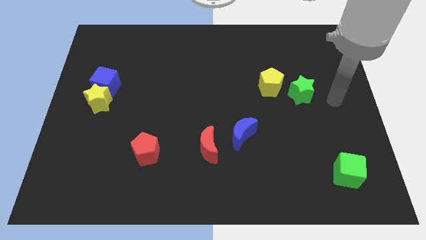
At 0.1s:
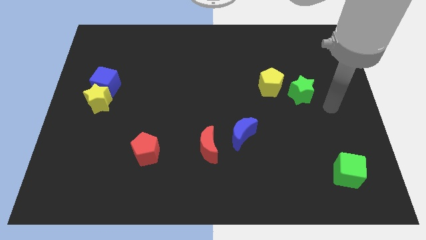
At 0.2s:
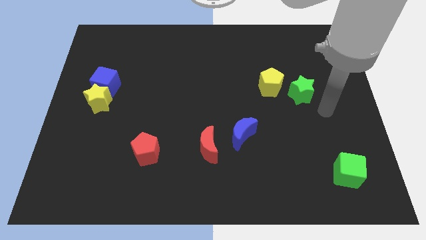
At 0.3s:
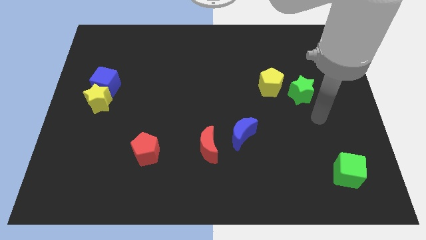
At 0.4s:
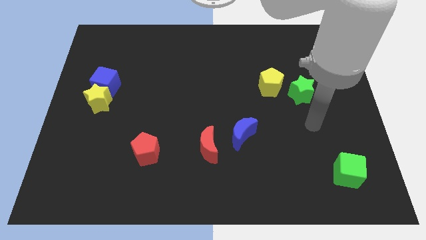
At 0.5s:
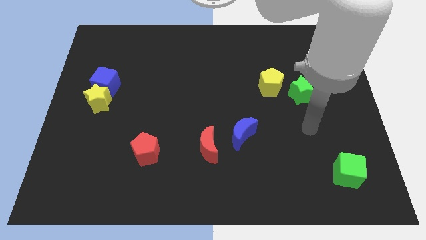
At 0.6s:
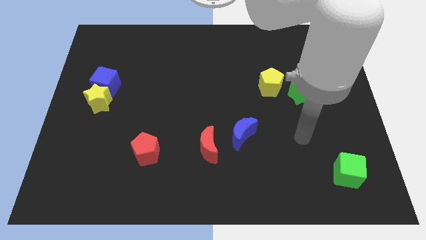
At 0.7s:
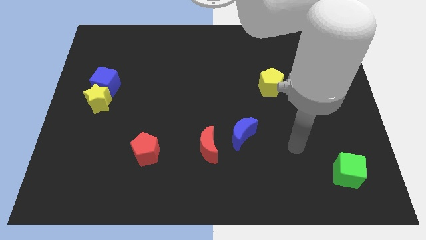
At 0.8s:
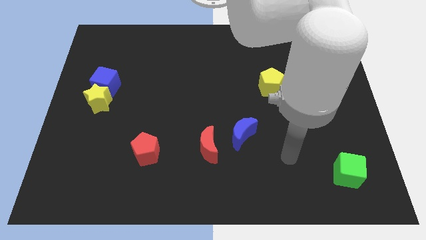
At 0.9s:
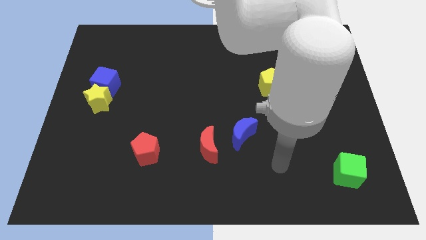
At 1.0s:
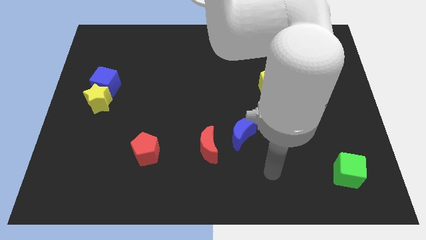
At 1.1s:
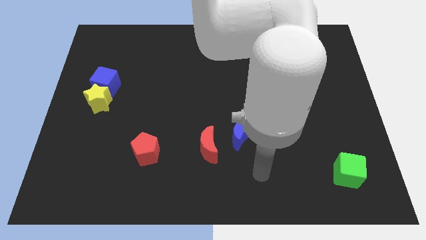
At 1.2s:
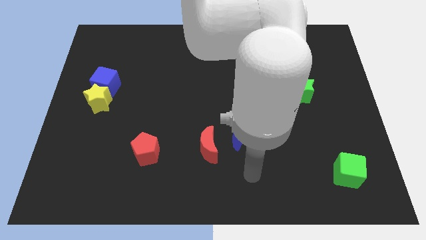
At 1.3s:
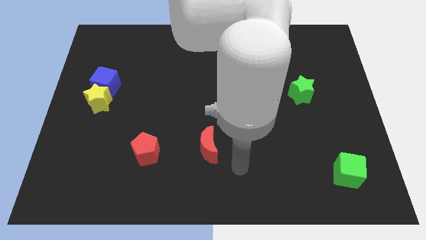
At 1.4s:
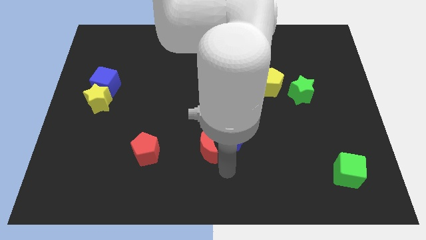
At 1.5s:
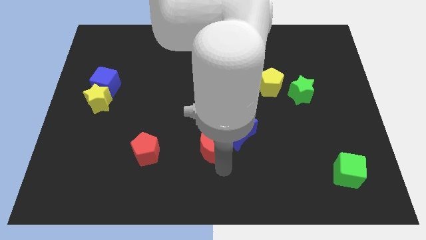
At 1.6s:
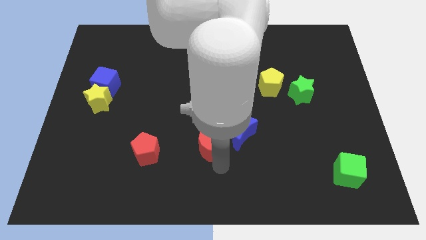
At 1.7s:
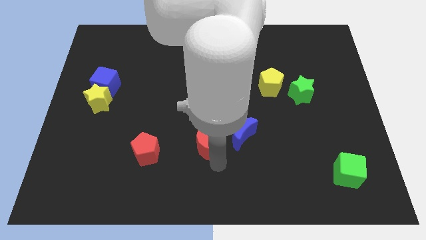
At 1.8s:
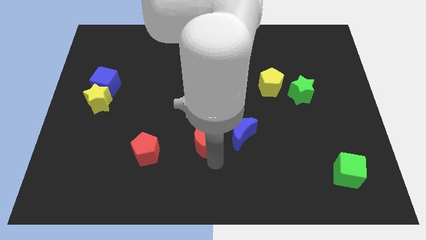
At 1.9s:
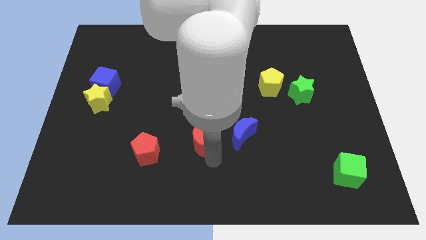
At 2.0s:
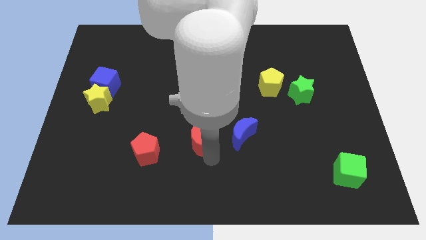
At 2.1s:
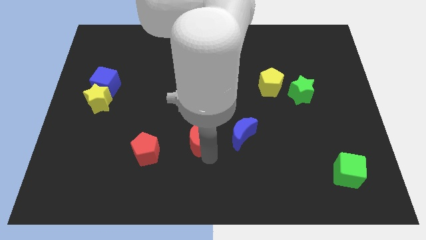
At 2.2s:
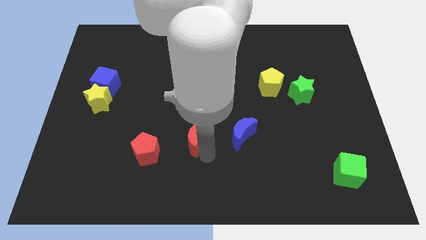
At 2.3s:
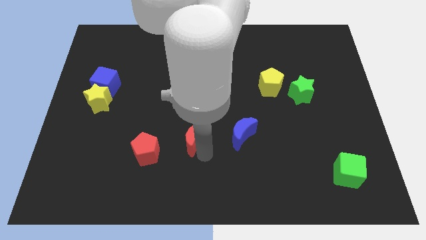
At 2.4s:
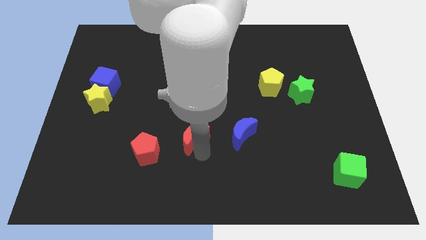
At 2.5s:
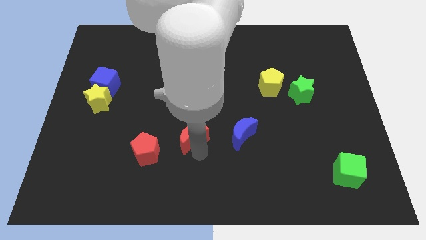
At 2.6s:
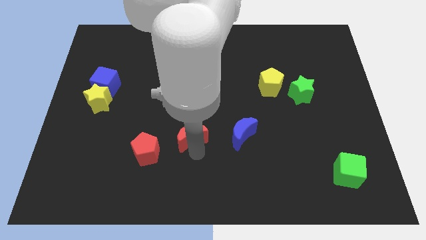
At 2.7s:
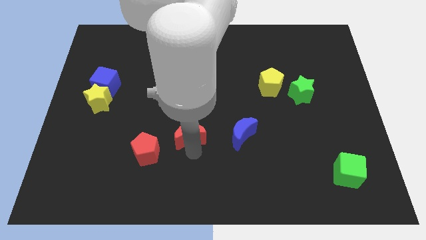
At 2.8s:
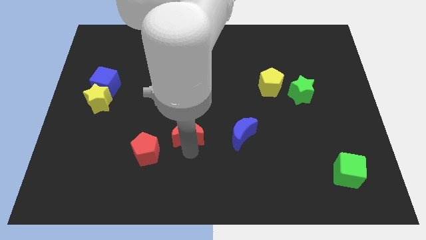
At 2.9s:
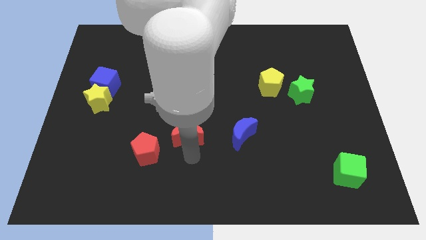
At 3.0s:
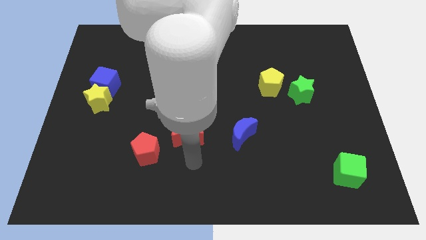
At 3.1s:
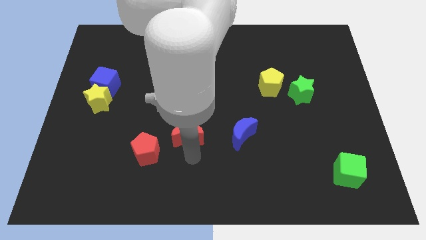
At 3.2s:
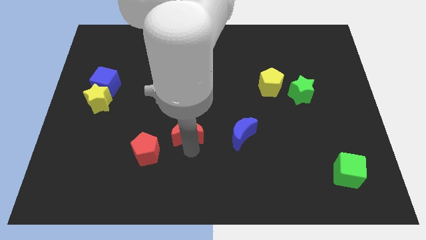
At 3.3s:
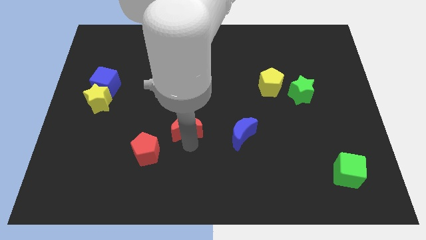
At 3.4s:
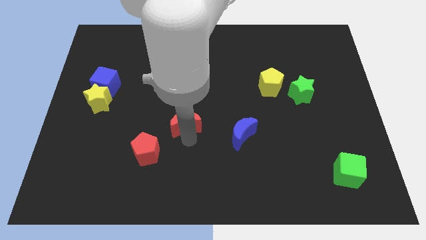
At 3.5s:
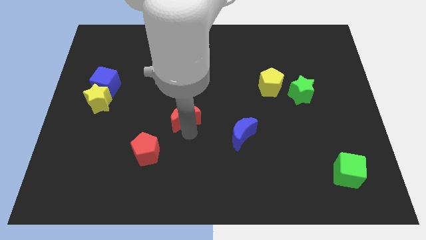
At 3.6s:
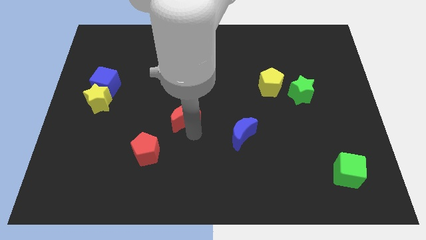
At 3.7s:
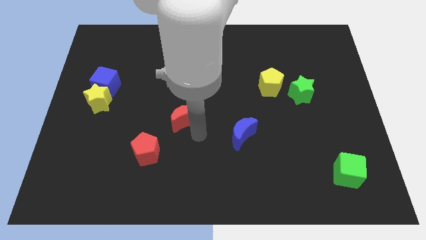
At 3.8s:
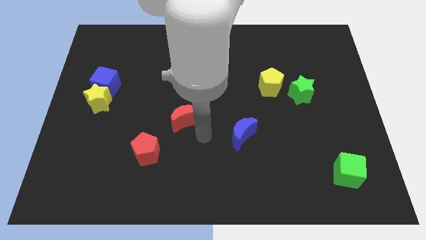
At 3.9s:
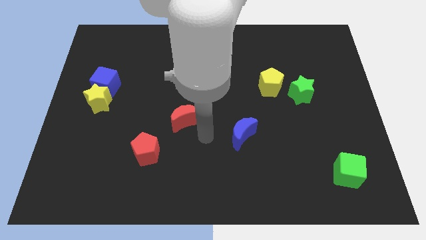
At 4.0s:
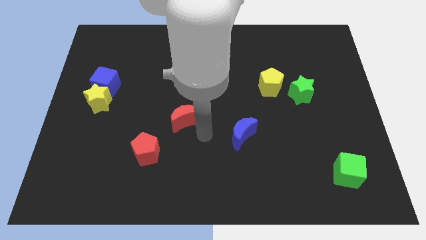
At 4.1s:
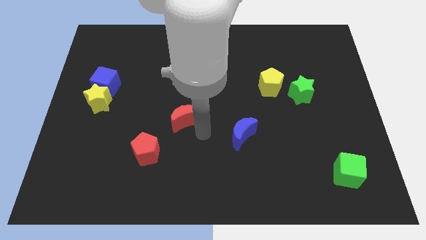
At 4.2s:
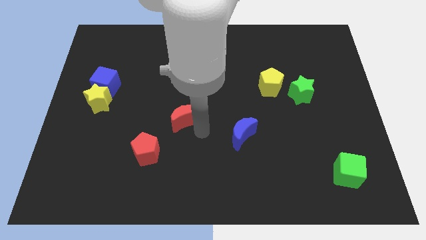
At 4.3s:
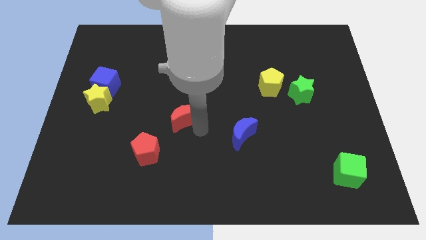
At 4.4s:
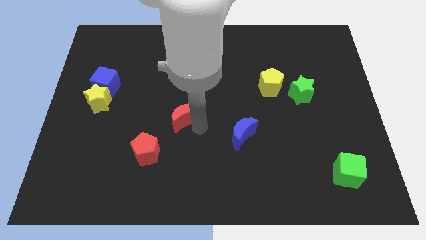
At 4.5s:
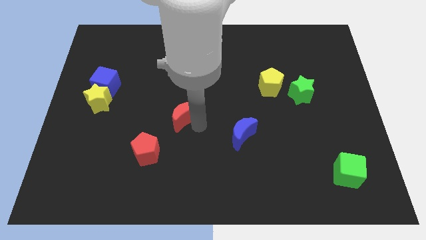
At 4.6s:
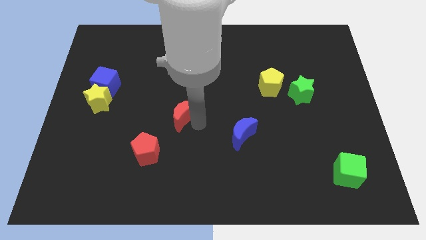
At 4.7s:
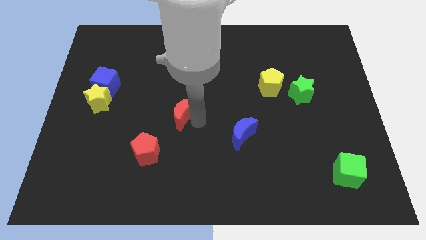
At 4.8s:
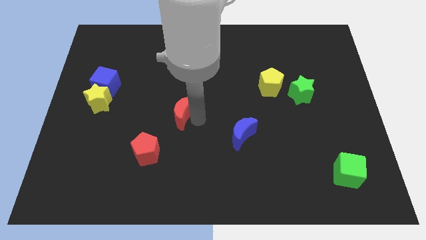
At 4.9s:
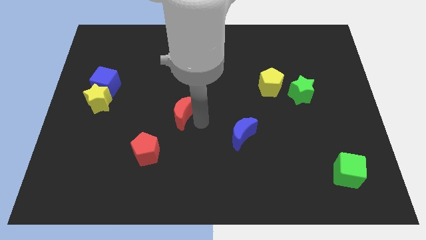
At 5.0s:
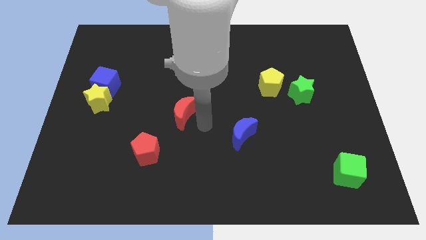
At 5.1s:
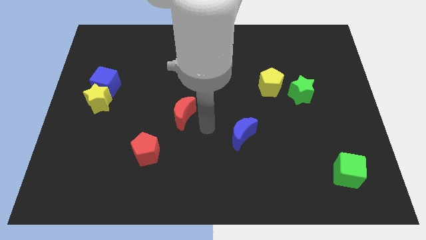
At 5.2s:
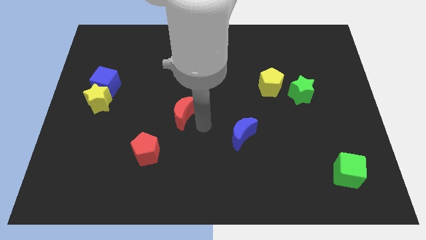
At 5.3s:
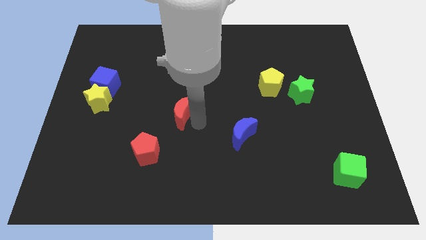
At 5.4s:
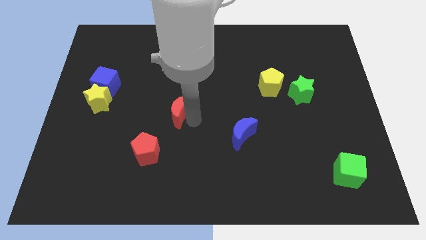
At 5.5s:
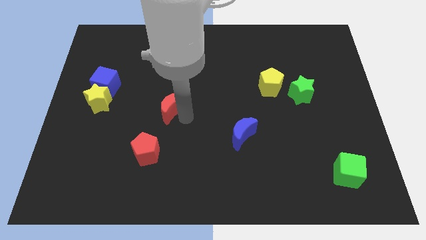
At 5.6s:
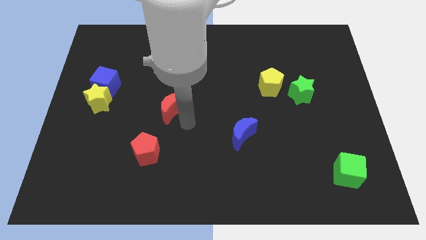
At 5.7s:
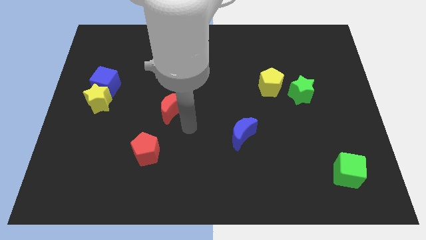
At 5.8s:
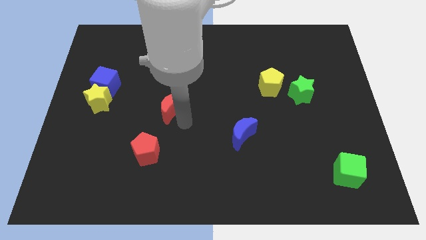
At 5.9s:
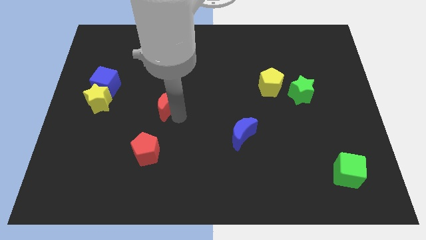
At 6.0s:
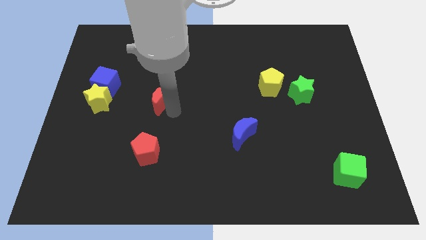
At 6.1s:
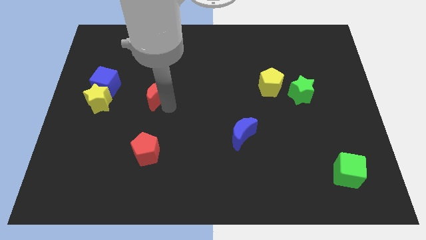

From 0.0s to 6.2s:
put the red moon to the right of the blue cube

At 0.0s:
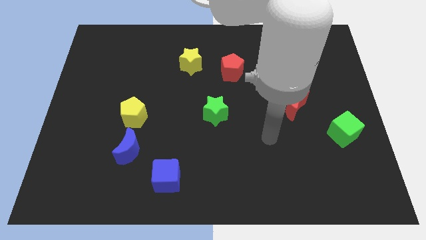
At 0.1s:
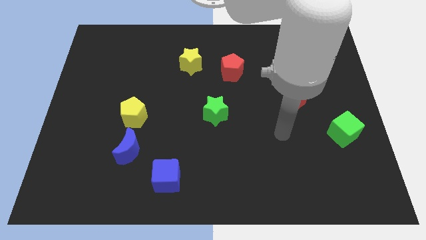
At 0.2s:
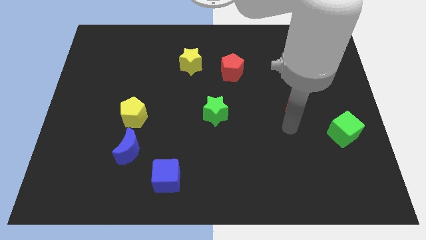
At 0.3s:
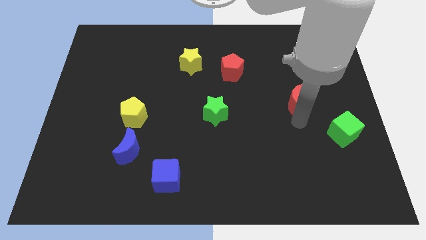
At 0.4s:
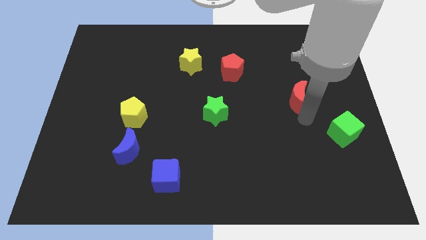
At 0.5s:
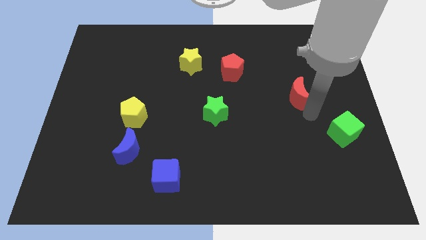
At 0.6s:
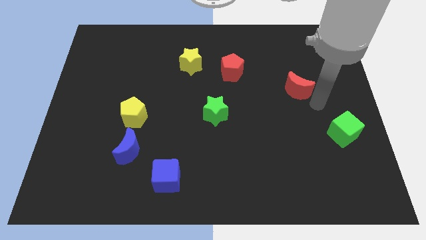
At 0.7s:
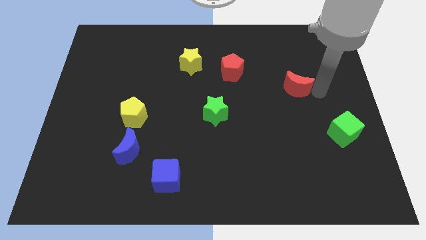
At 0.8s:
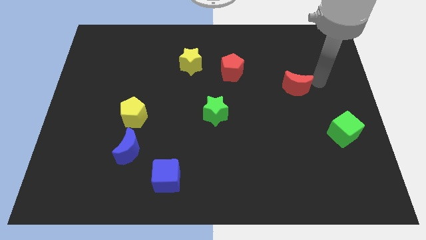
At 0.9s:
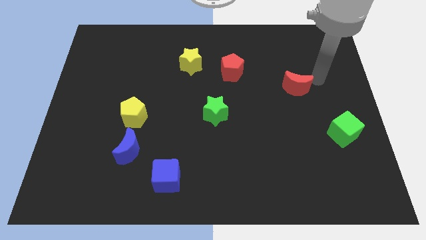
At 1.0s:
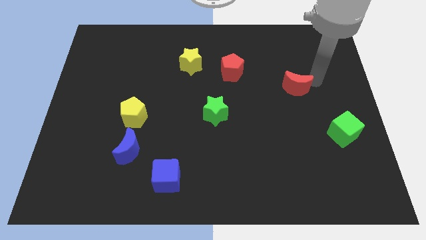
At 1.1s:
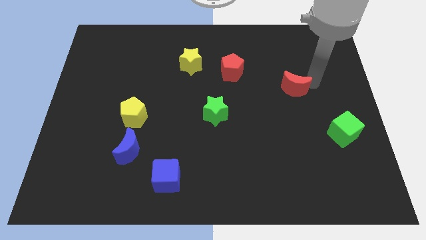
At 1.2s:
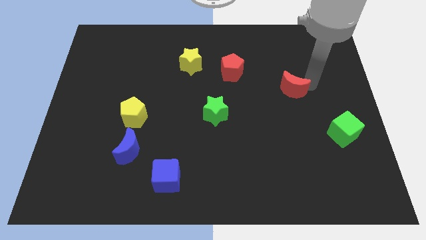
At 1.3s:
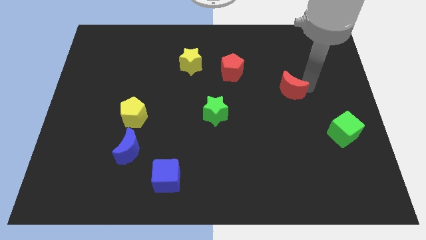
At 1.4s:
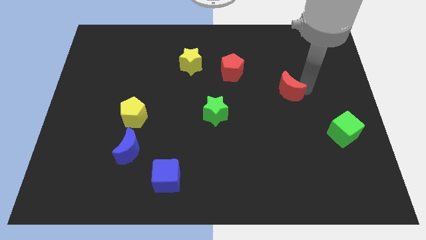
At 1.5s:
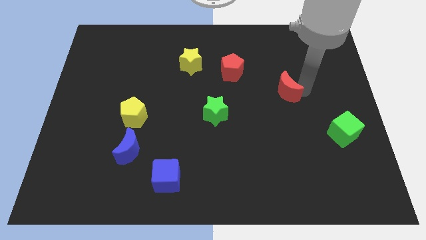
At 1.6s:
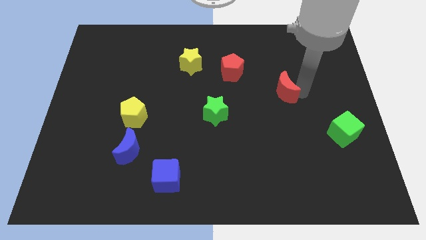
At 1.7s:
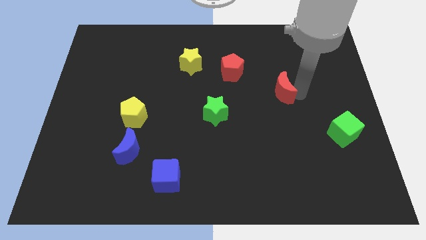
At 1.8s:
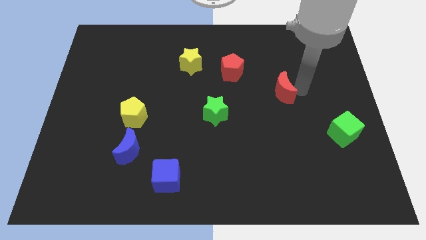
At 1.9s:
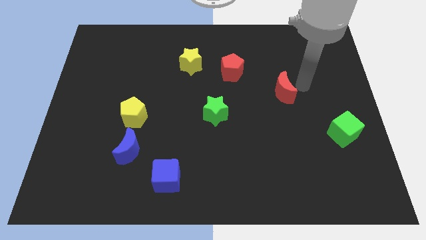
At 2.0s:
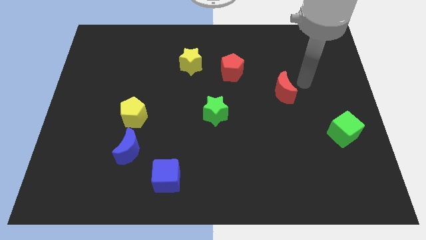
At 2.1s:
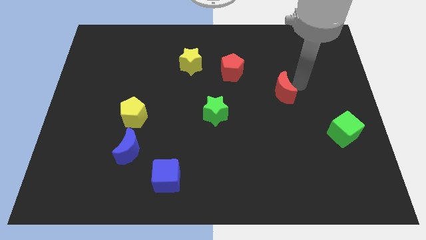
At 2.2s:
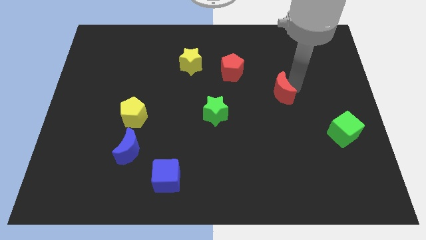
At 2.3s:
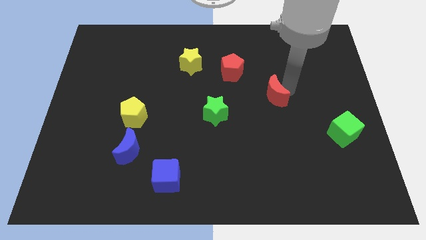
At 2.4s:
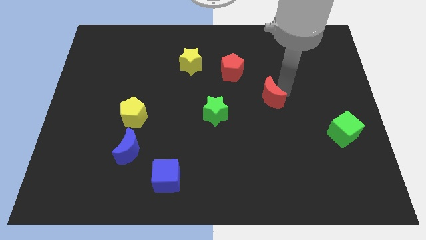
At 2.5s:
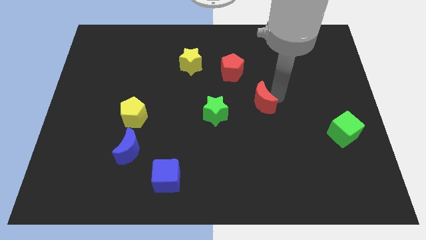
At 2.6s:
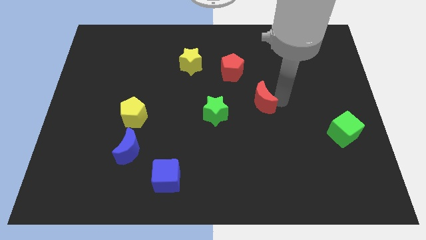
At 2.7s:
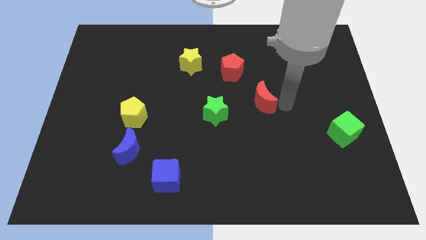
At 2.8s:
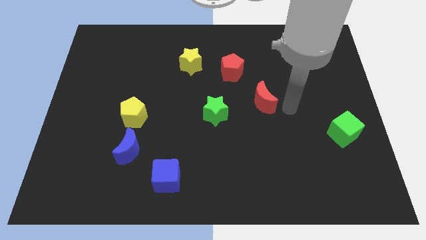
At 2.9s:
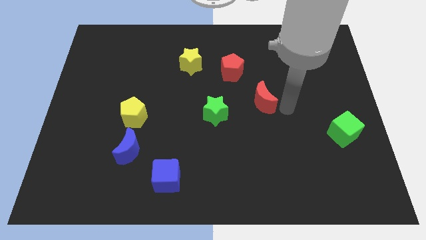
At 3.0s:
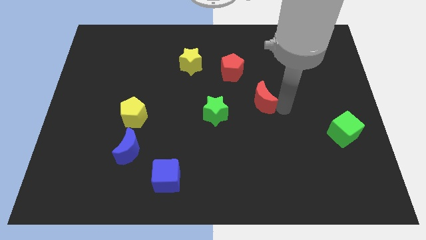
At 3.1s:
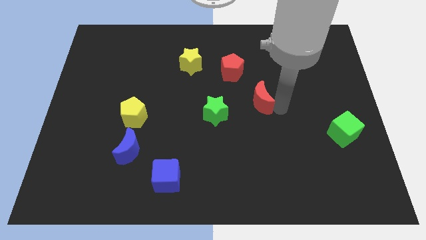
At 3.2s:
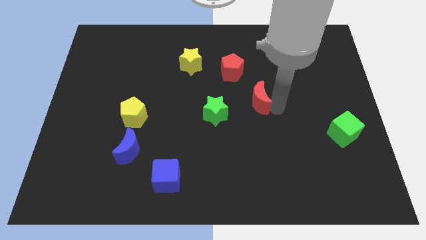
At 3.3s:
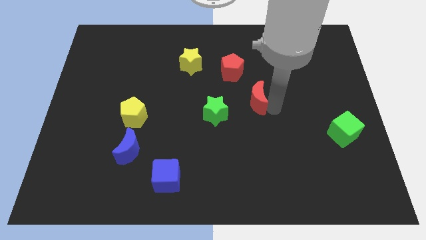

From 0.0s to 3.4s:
move the red moon to the top right side of the green star
